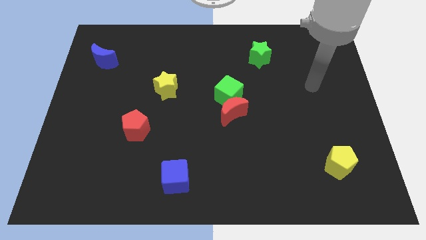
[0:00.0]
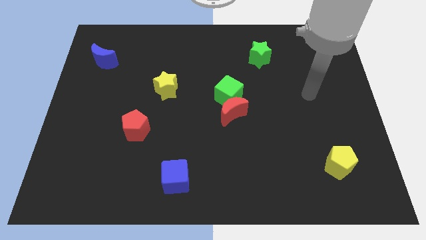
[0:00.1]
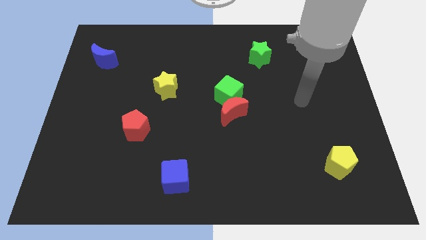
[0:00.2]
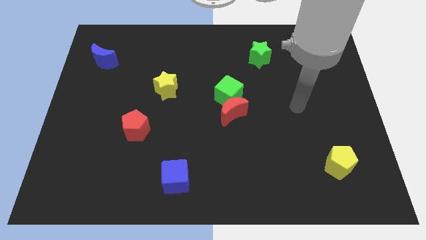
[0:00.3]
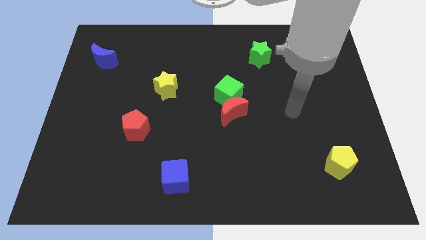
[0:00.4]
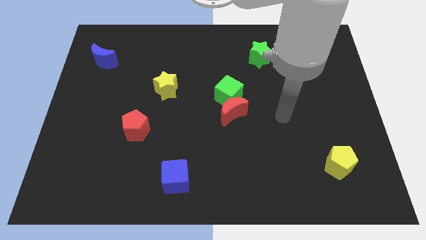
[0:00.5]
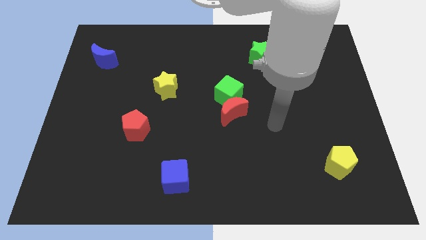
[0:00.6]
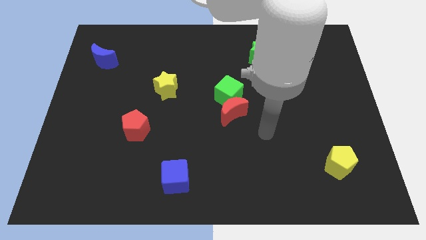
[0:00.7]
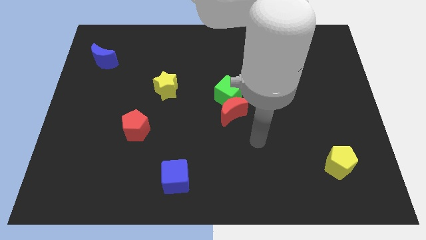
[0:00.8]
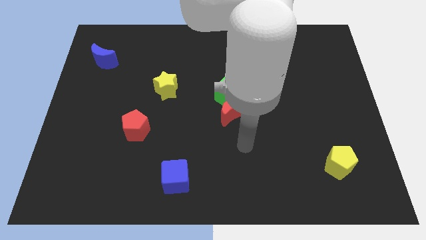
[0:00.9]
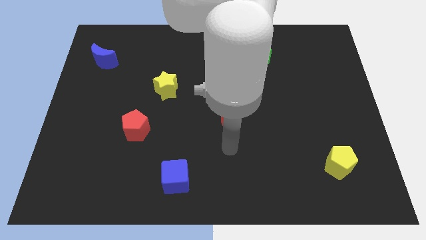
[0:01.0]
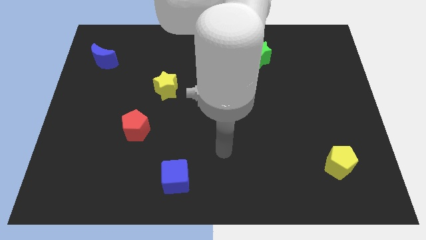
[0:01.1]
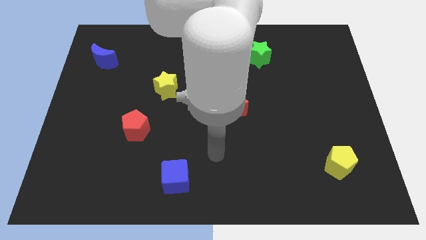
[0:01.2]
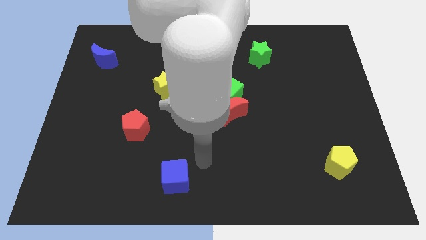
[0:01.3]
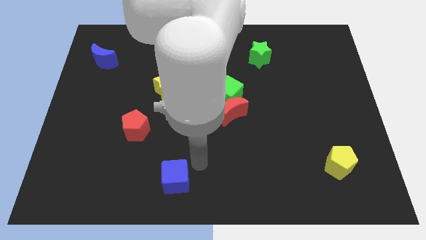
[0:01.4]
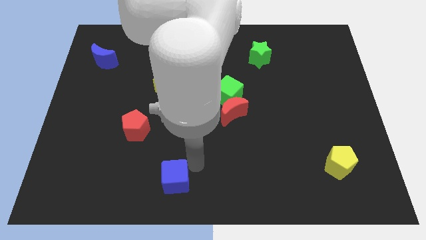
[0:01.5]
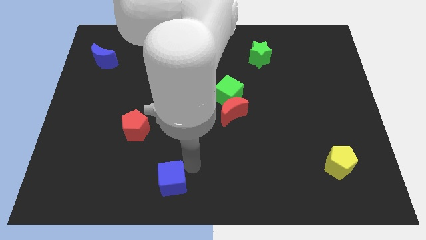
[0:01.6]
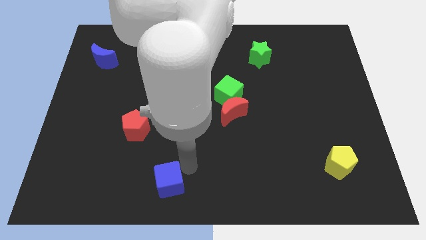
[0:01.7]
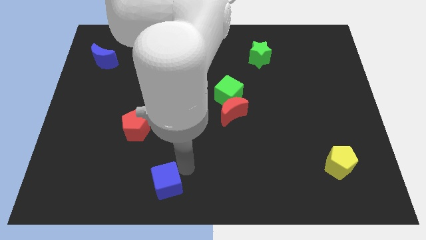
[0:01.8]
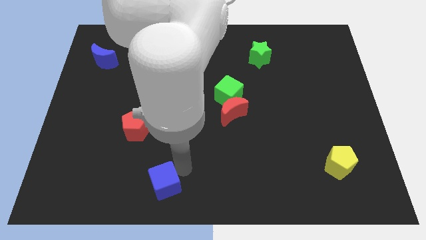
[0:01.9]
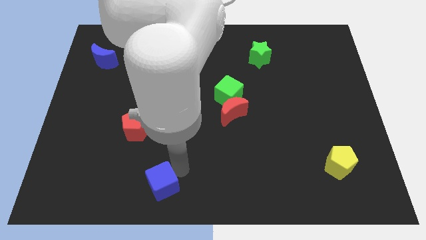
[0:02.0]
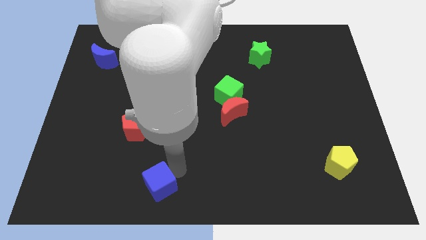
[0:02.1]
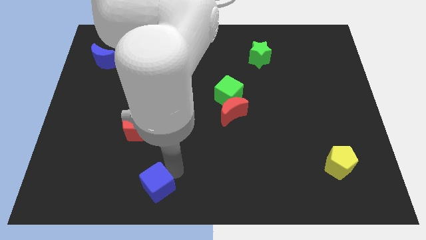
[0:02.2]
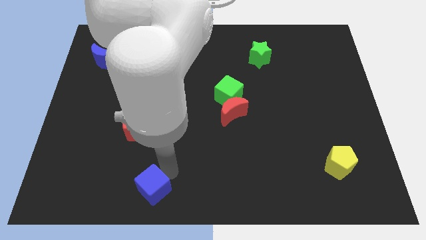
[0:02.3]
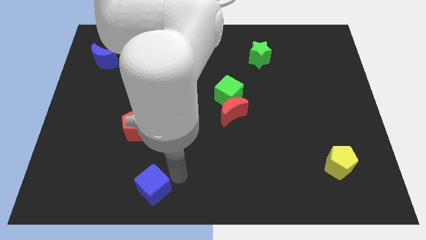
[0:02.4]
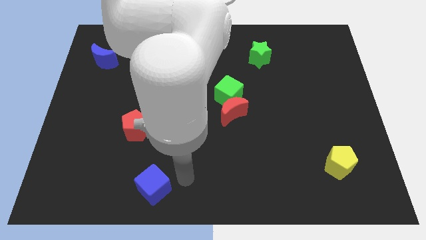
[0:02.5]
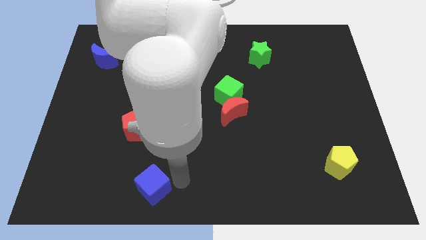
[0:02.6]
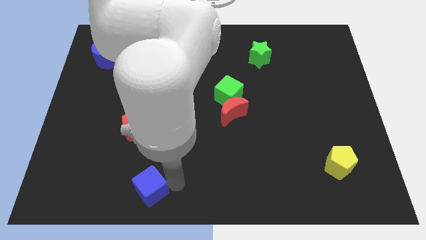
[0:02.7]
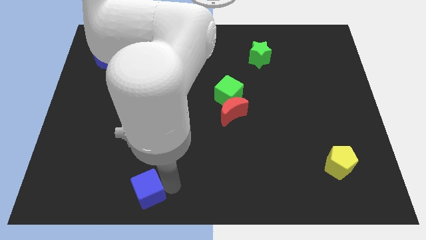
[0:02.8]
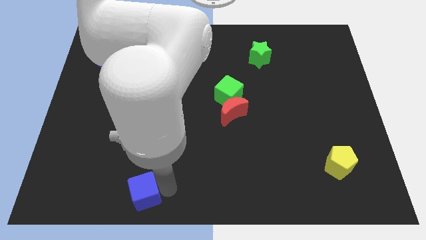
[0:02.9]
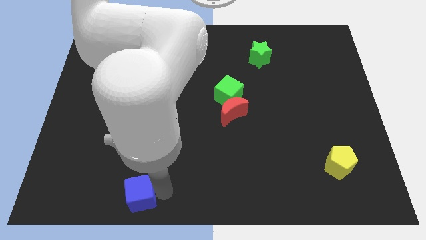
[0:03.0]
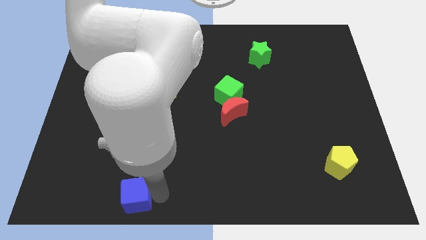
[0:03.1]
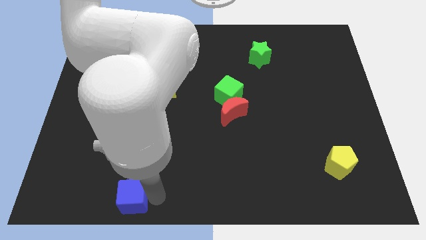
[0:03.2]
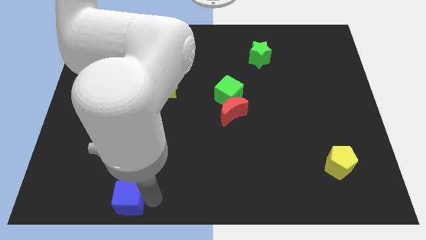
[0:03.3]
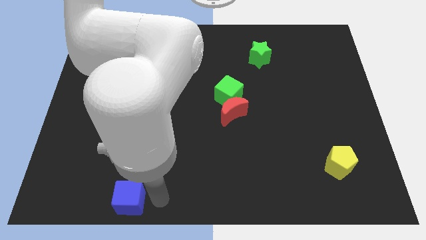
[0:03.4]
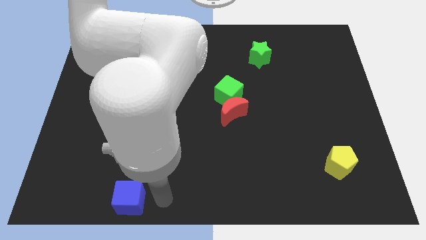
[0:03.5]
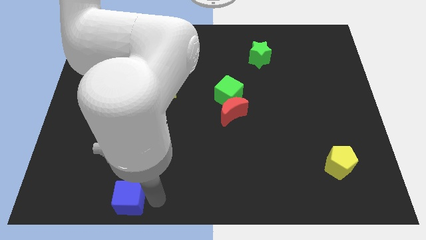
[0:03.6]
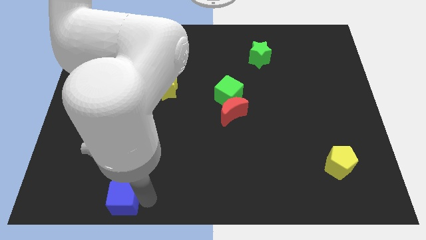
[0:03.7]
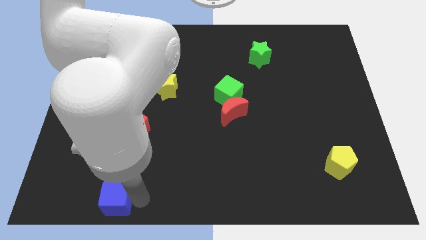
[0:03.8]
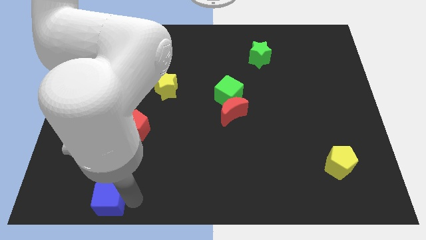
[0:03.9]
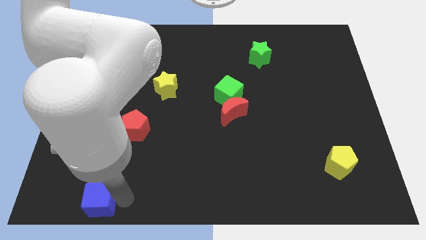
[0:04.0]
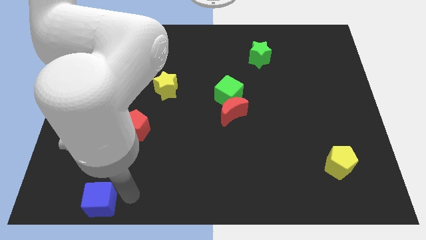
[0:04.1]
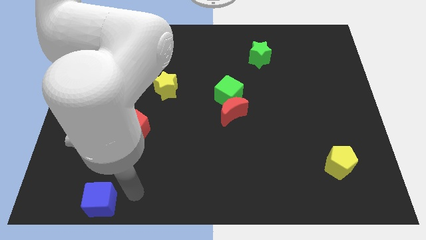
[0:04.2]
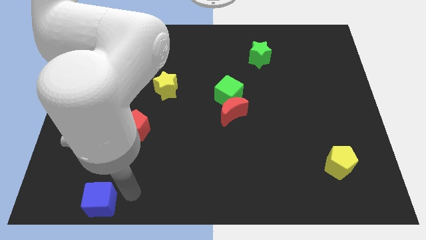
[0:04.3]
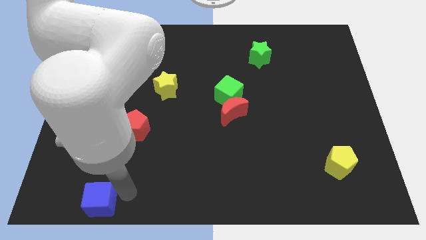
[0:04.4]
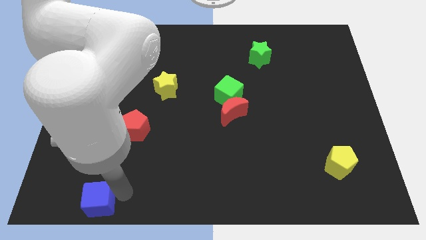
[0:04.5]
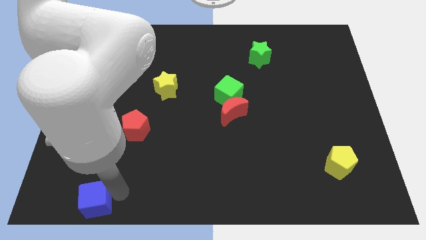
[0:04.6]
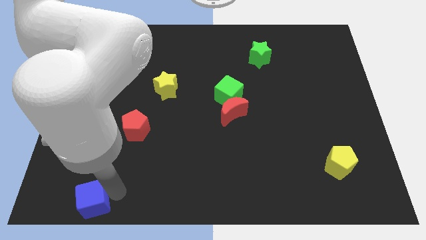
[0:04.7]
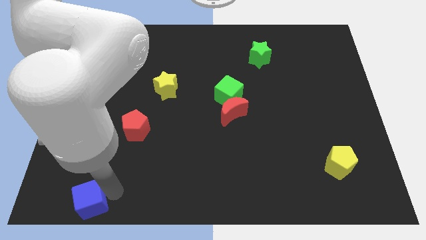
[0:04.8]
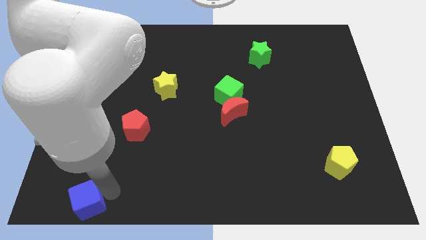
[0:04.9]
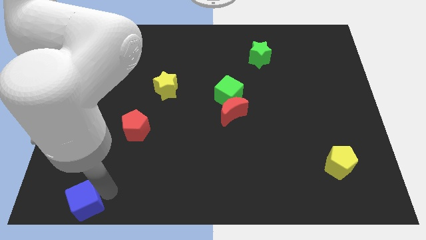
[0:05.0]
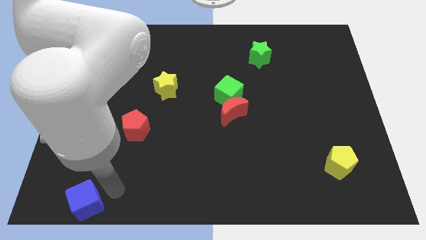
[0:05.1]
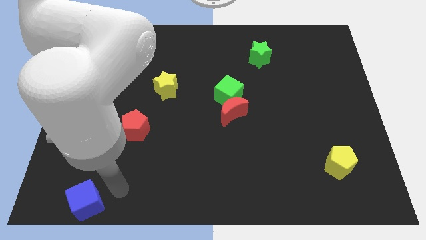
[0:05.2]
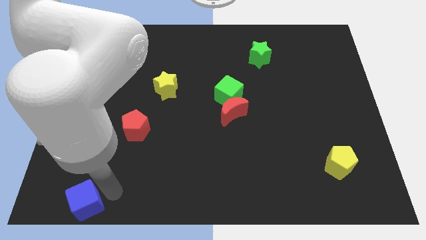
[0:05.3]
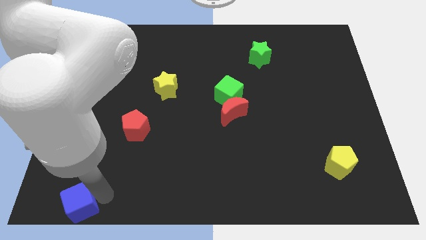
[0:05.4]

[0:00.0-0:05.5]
move the blue cube to the bottom left of the board
